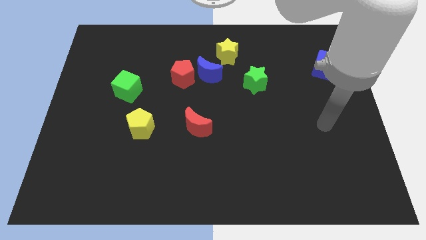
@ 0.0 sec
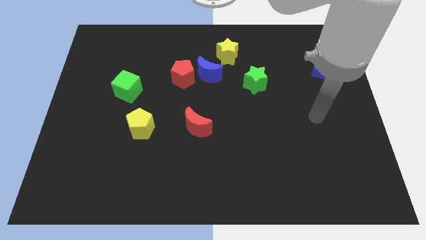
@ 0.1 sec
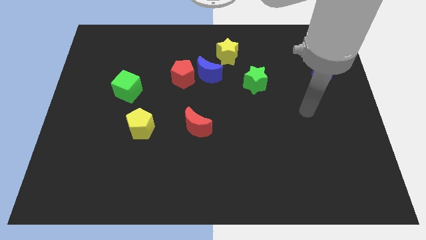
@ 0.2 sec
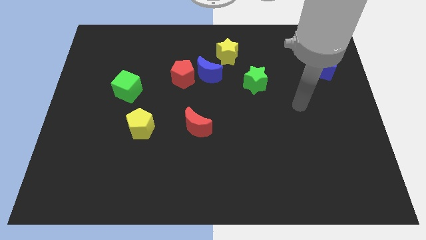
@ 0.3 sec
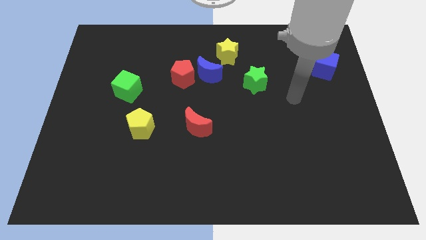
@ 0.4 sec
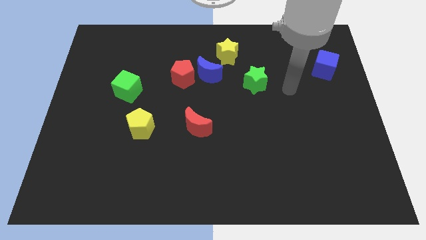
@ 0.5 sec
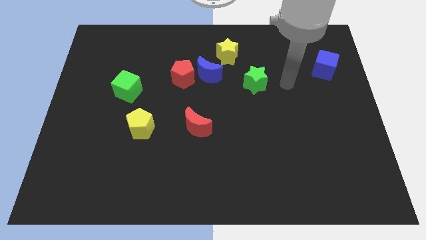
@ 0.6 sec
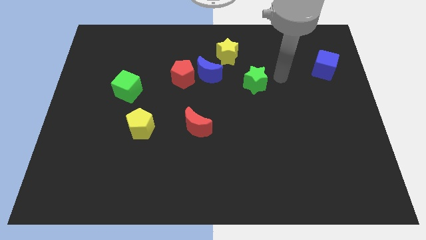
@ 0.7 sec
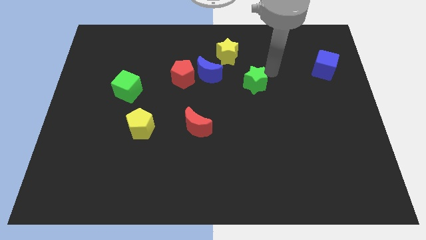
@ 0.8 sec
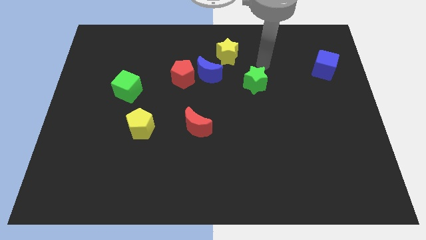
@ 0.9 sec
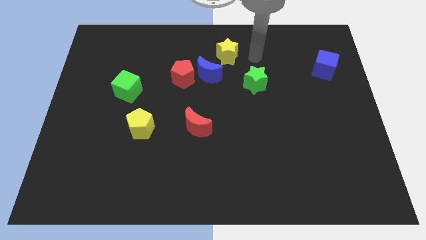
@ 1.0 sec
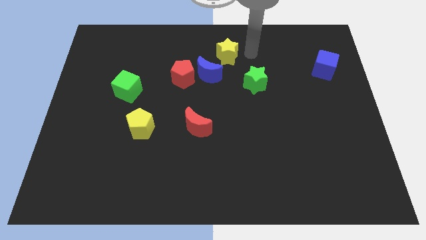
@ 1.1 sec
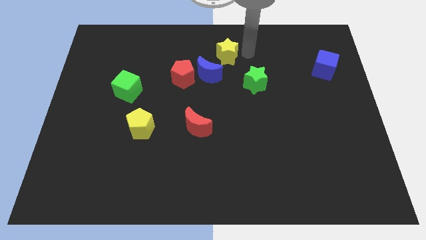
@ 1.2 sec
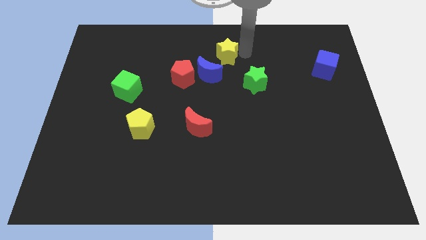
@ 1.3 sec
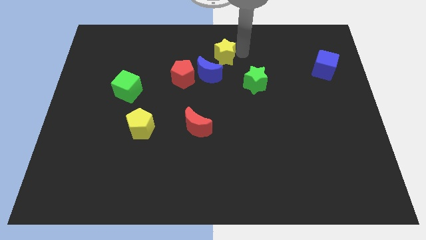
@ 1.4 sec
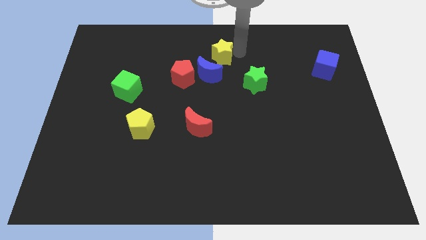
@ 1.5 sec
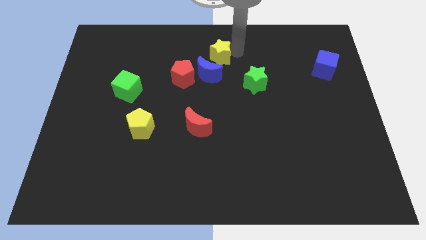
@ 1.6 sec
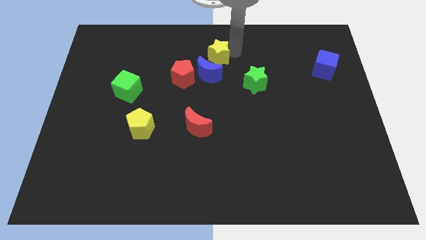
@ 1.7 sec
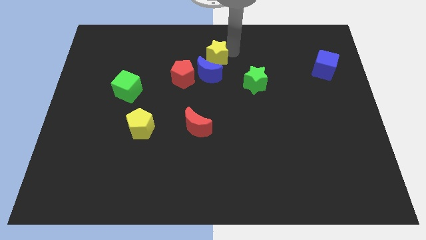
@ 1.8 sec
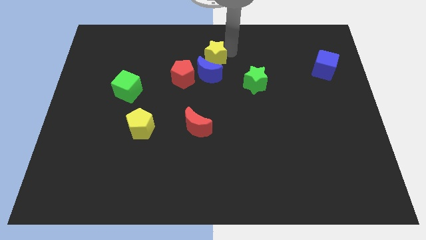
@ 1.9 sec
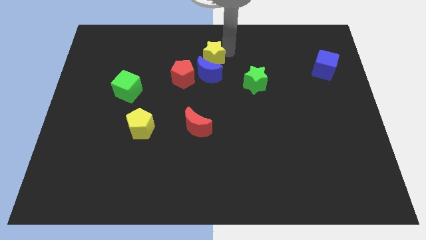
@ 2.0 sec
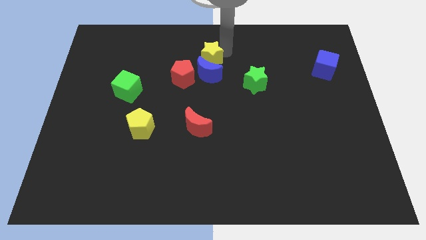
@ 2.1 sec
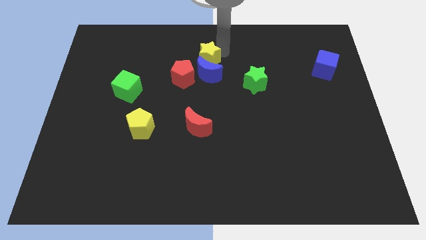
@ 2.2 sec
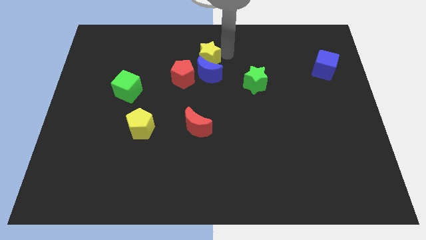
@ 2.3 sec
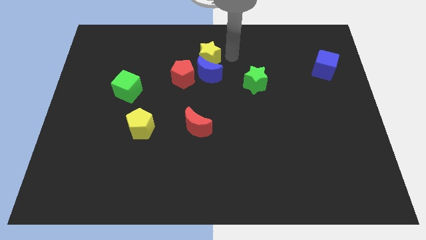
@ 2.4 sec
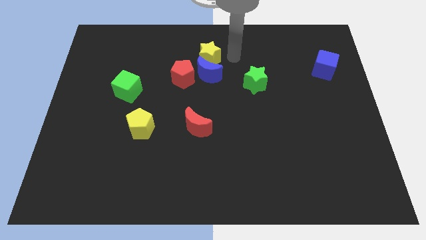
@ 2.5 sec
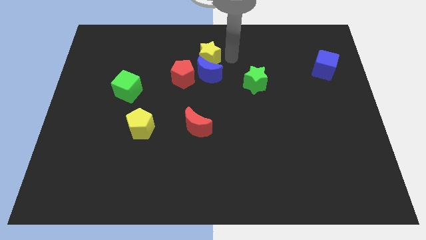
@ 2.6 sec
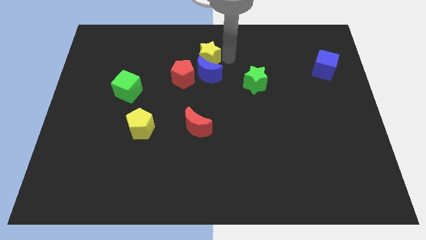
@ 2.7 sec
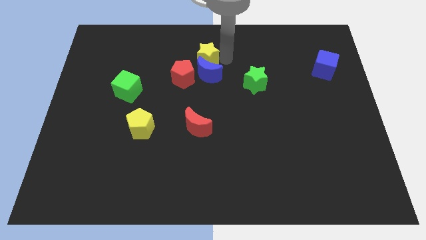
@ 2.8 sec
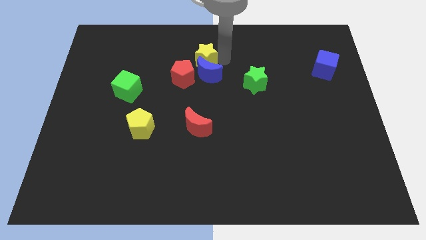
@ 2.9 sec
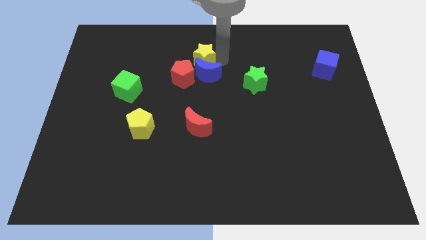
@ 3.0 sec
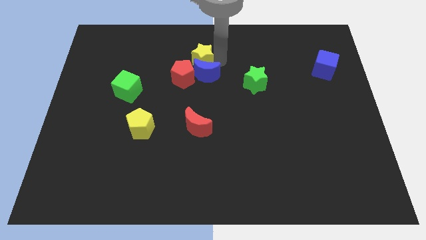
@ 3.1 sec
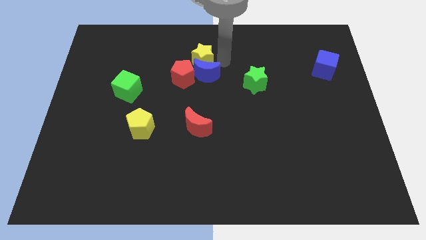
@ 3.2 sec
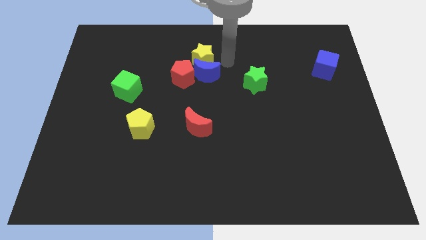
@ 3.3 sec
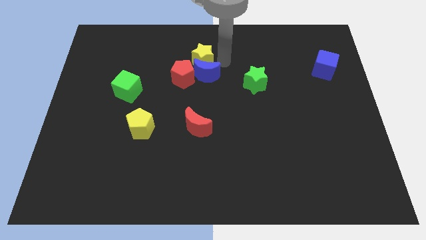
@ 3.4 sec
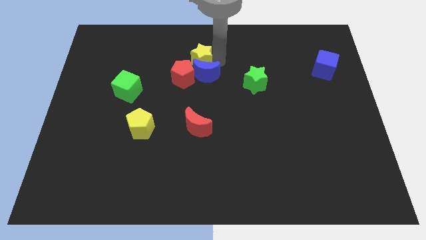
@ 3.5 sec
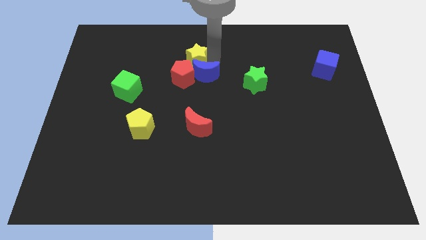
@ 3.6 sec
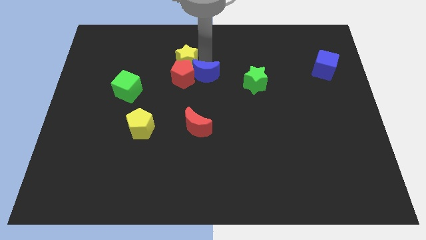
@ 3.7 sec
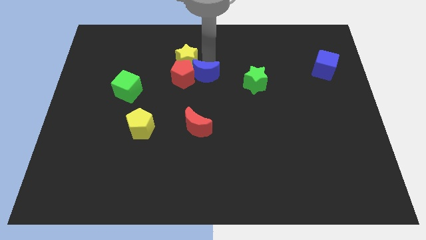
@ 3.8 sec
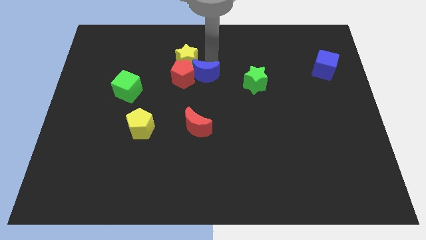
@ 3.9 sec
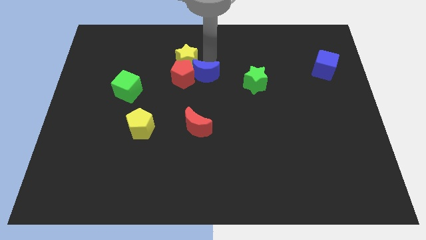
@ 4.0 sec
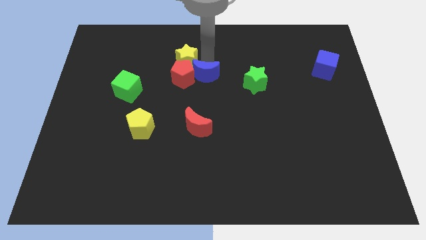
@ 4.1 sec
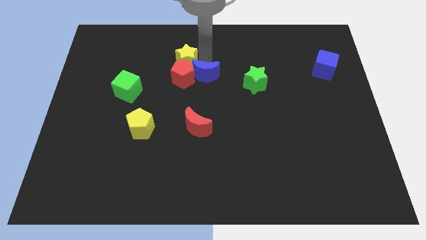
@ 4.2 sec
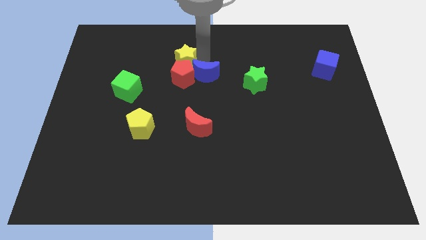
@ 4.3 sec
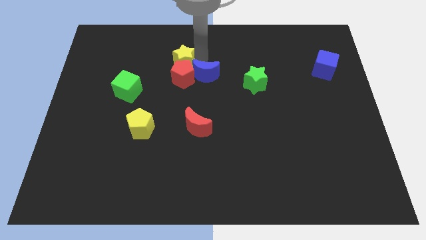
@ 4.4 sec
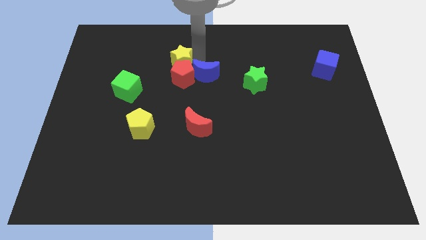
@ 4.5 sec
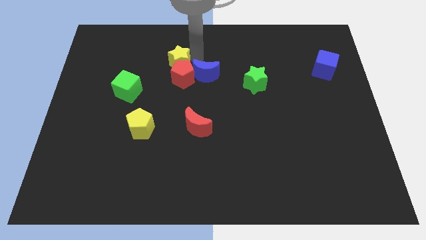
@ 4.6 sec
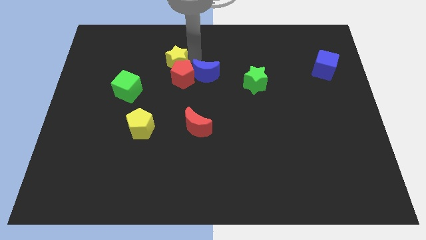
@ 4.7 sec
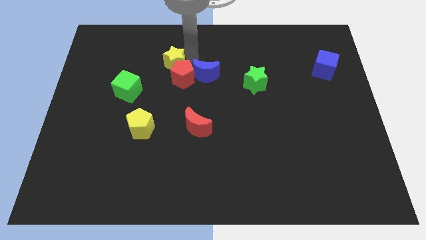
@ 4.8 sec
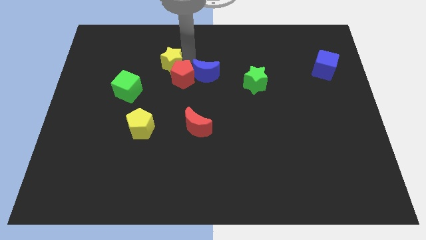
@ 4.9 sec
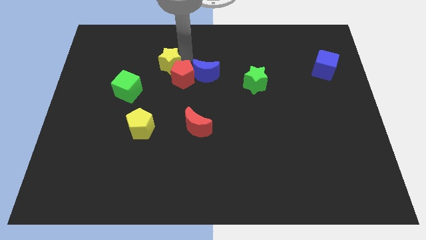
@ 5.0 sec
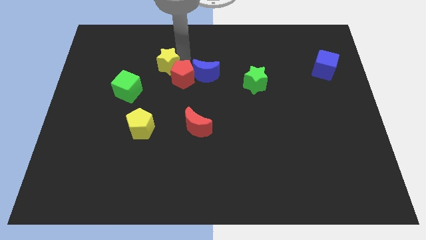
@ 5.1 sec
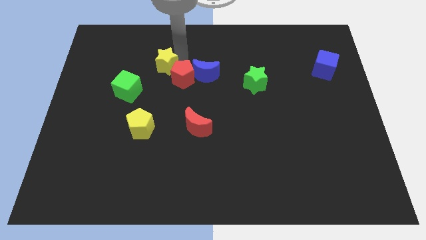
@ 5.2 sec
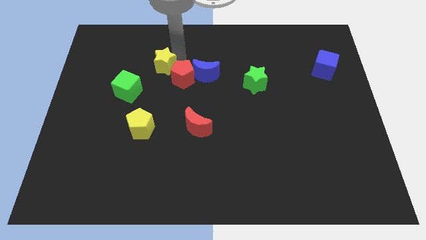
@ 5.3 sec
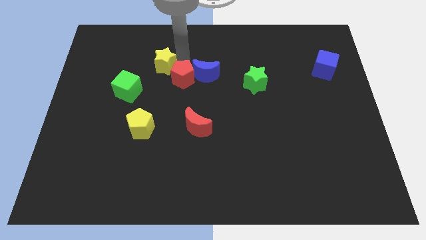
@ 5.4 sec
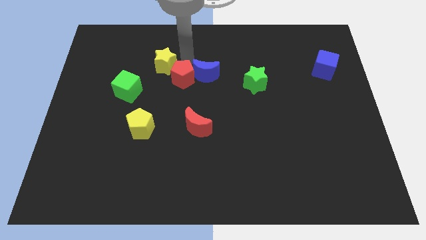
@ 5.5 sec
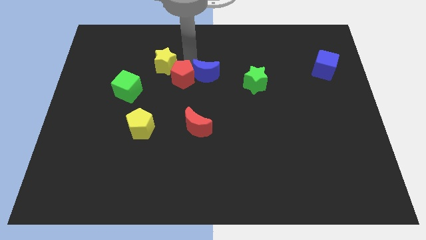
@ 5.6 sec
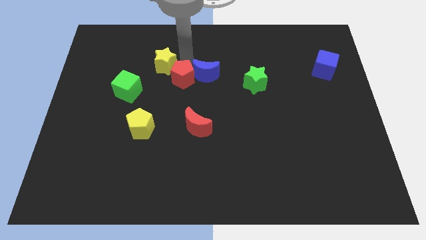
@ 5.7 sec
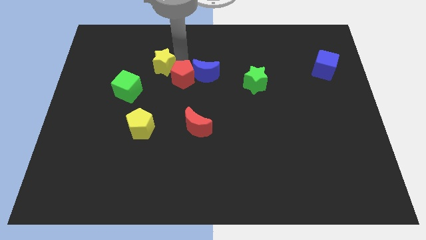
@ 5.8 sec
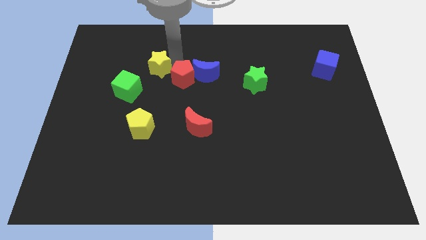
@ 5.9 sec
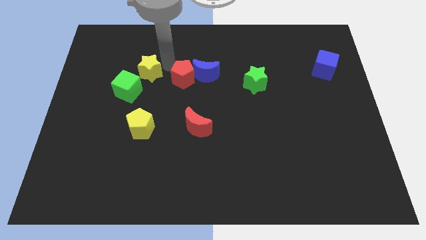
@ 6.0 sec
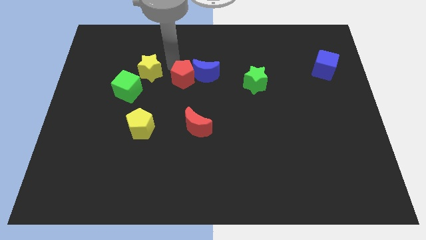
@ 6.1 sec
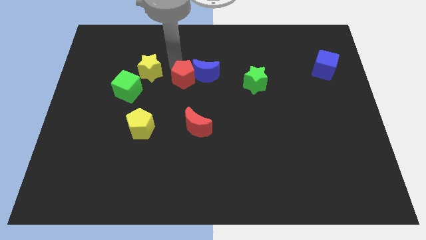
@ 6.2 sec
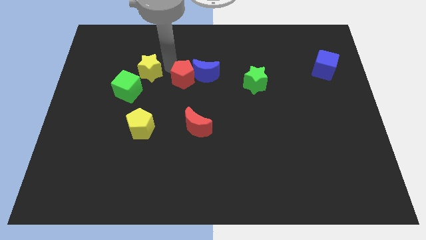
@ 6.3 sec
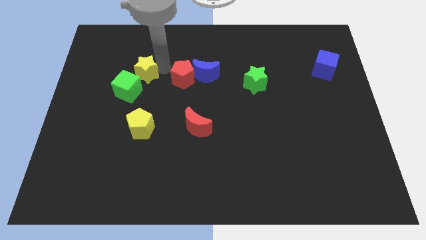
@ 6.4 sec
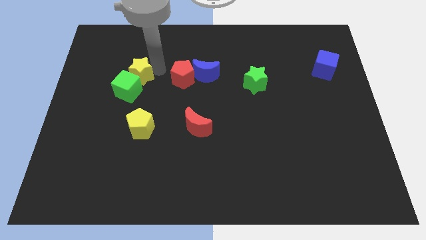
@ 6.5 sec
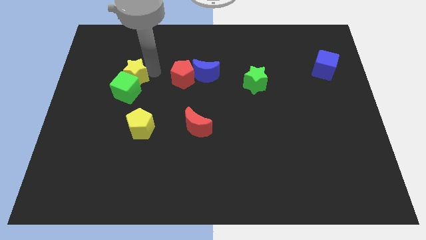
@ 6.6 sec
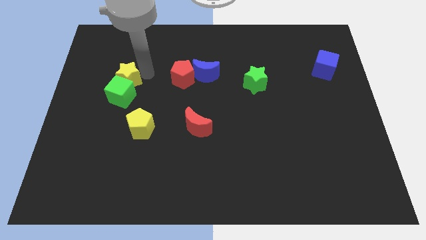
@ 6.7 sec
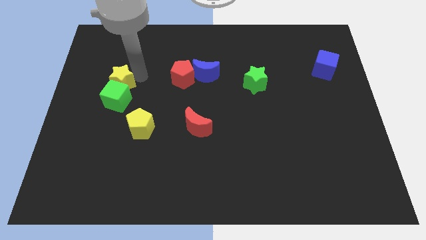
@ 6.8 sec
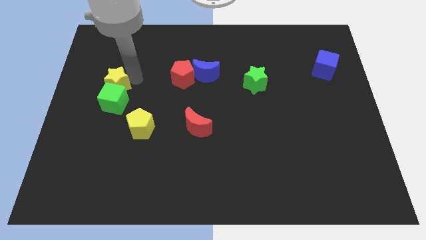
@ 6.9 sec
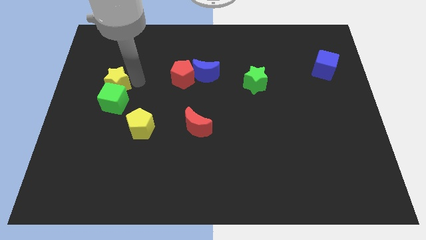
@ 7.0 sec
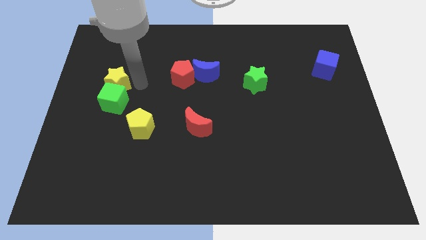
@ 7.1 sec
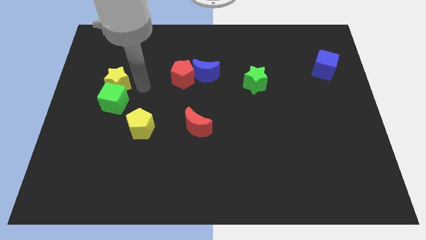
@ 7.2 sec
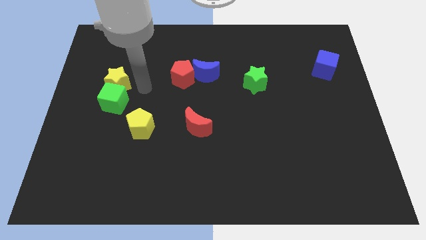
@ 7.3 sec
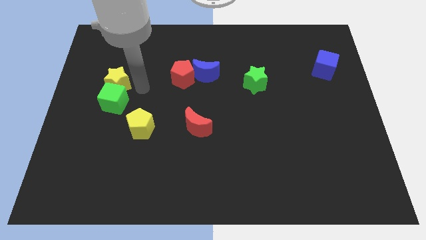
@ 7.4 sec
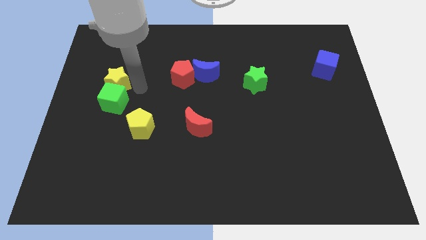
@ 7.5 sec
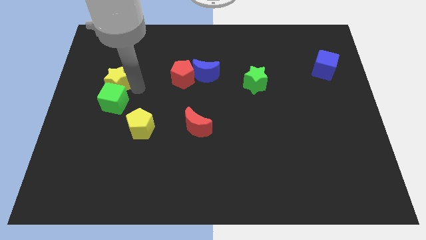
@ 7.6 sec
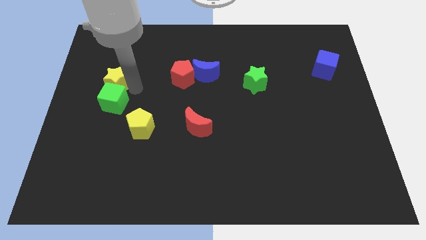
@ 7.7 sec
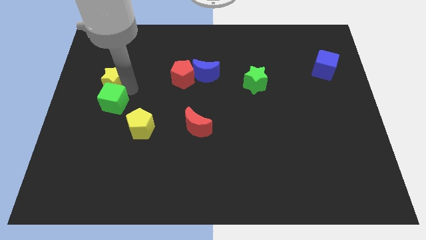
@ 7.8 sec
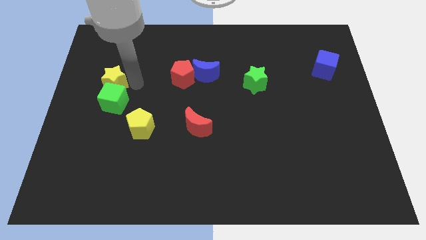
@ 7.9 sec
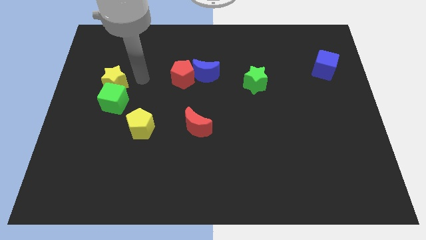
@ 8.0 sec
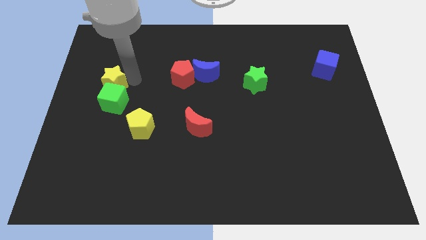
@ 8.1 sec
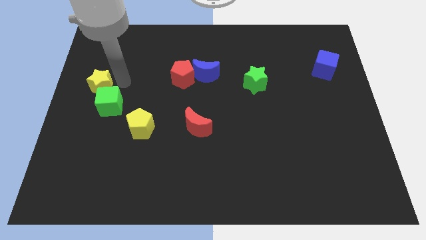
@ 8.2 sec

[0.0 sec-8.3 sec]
put the yellow star to the center left
